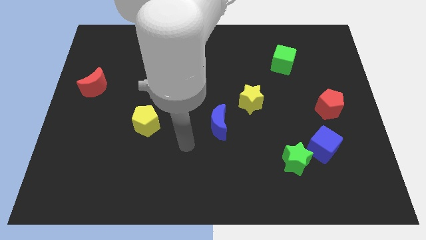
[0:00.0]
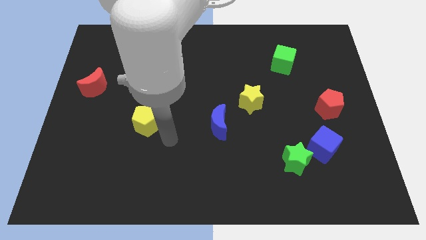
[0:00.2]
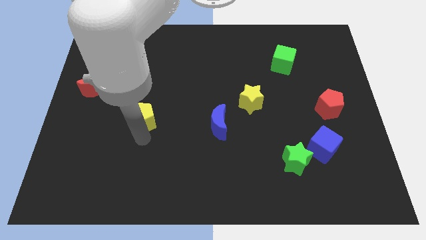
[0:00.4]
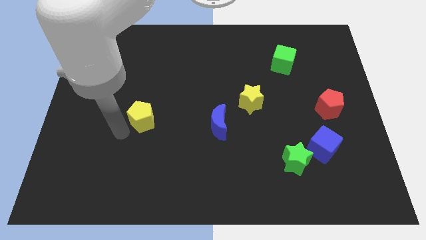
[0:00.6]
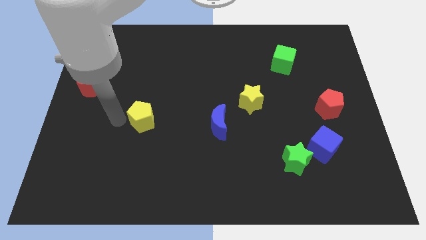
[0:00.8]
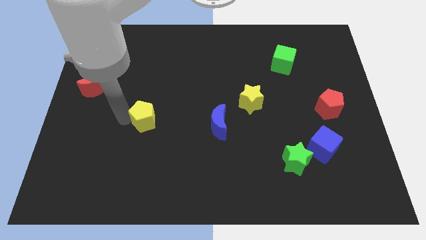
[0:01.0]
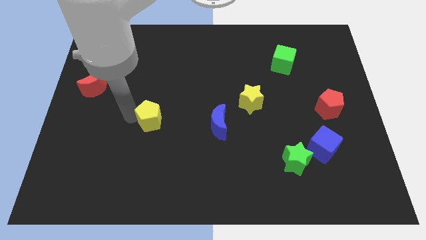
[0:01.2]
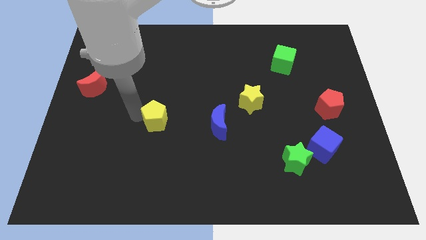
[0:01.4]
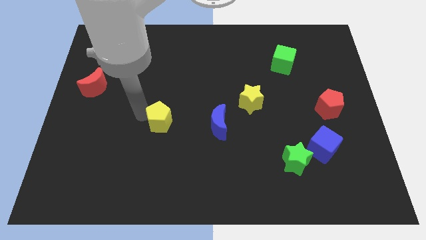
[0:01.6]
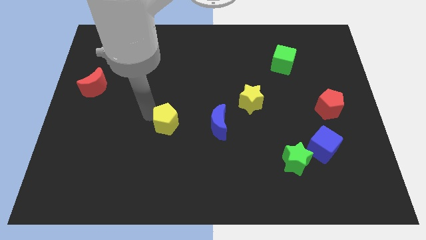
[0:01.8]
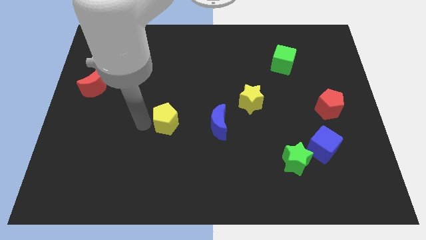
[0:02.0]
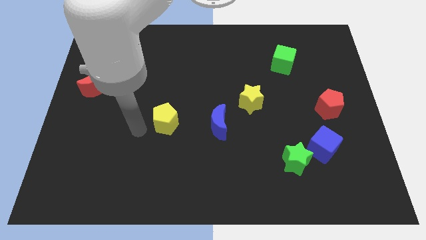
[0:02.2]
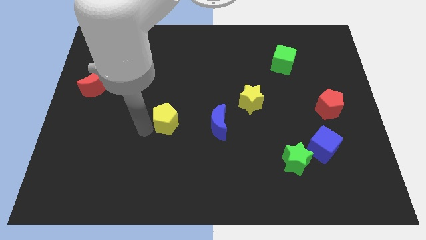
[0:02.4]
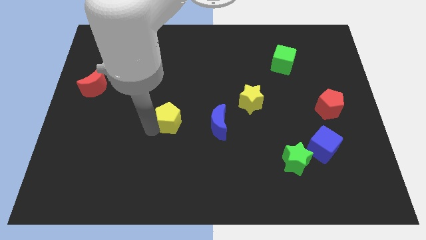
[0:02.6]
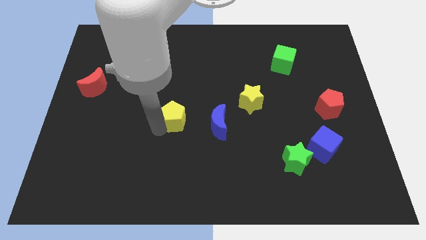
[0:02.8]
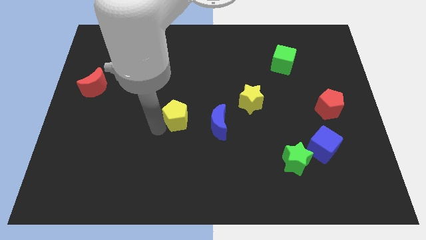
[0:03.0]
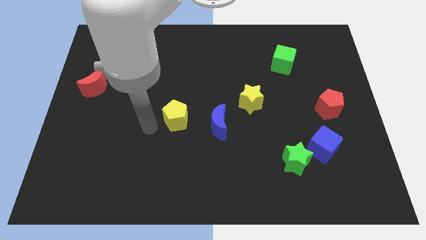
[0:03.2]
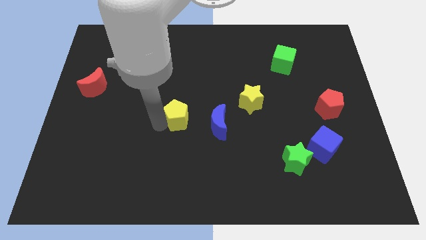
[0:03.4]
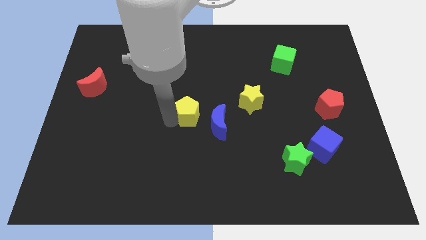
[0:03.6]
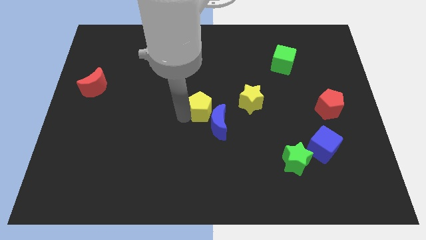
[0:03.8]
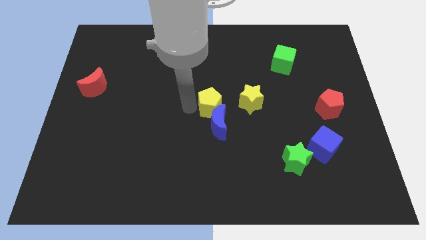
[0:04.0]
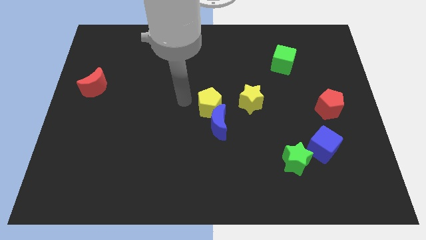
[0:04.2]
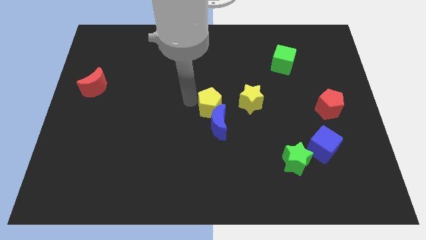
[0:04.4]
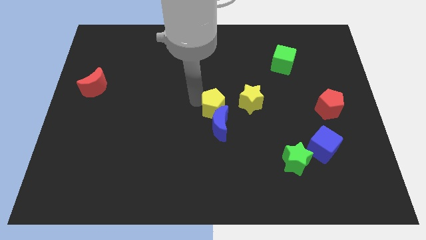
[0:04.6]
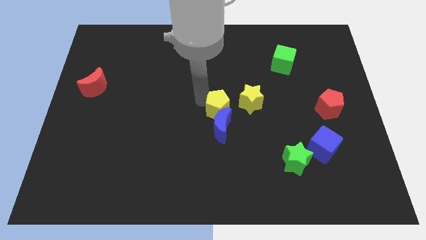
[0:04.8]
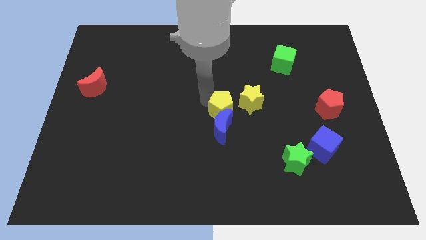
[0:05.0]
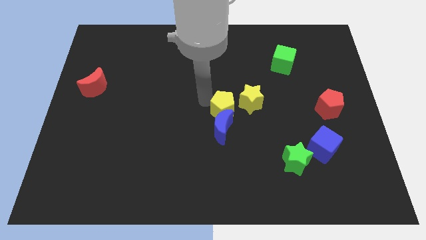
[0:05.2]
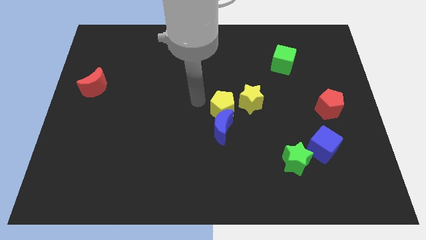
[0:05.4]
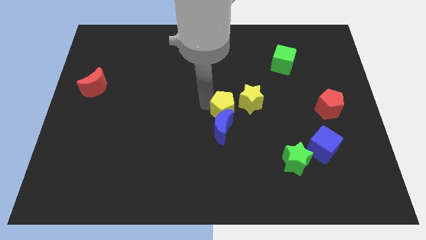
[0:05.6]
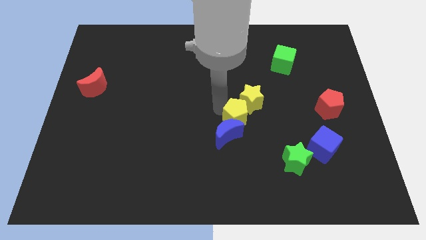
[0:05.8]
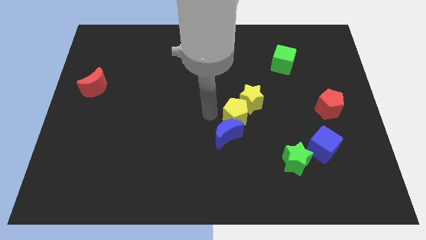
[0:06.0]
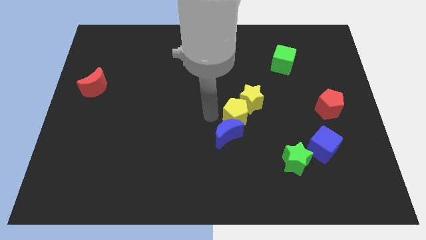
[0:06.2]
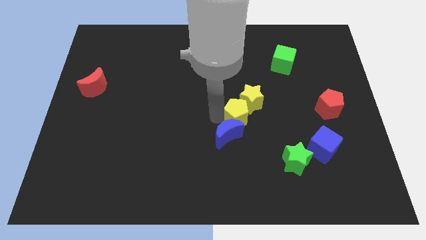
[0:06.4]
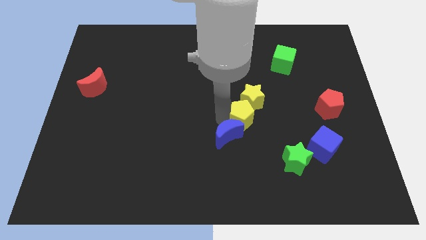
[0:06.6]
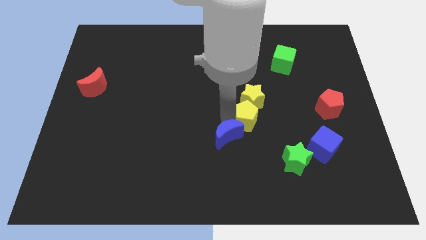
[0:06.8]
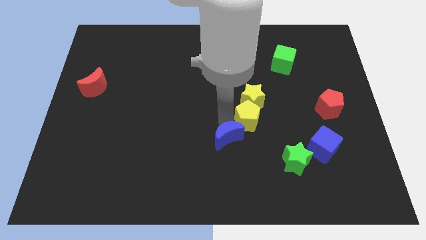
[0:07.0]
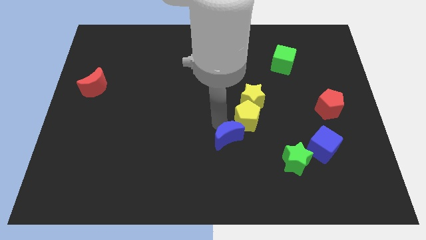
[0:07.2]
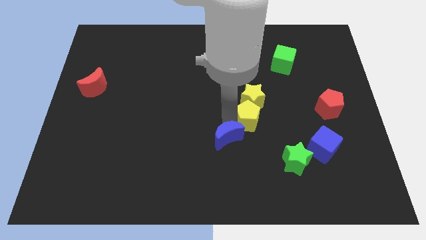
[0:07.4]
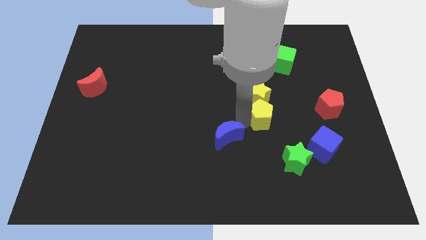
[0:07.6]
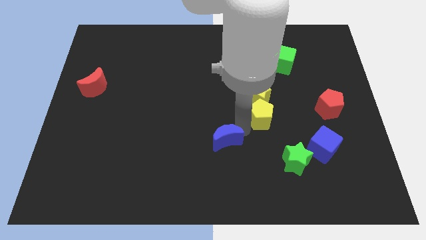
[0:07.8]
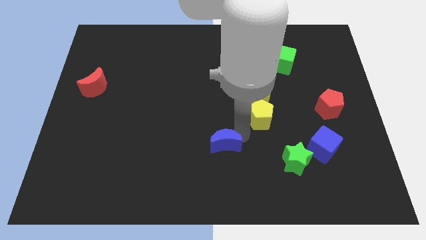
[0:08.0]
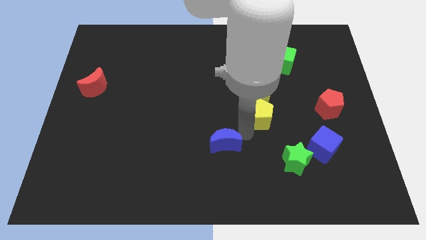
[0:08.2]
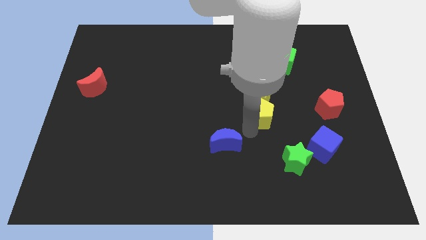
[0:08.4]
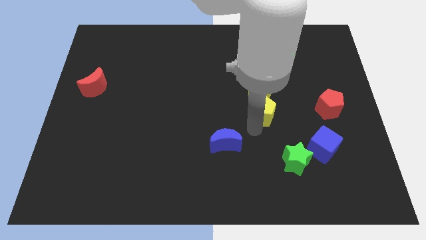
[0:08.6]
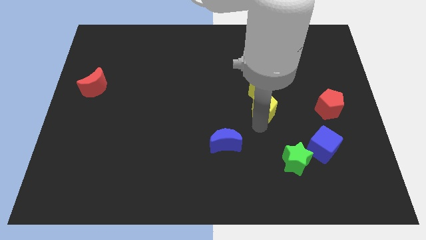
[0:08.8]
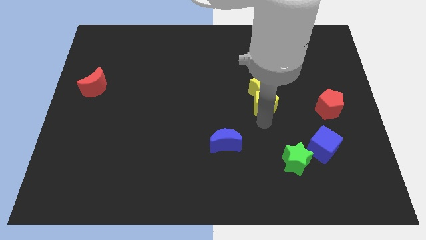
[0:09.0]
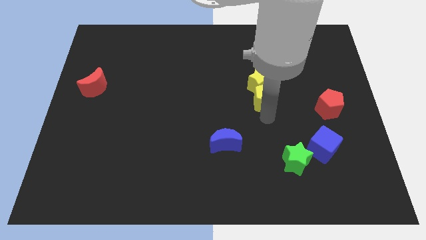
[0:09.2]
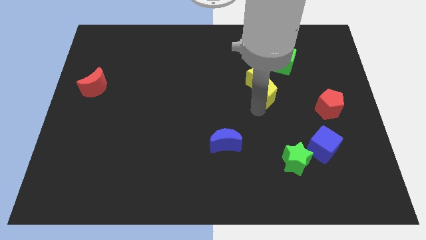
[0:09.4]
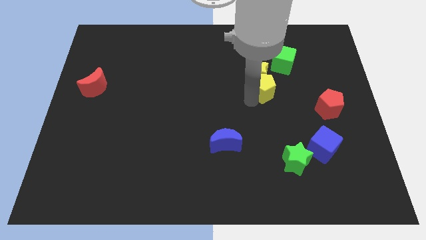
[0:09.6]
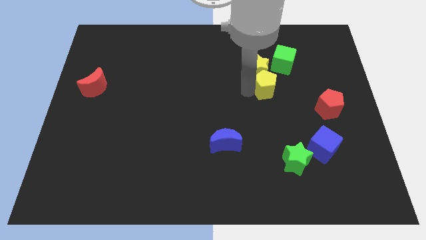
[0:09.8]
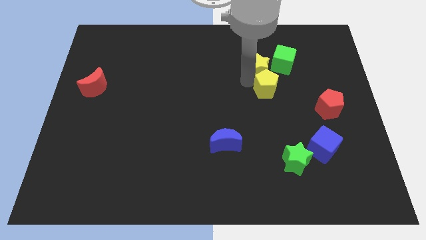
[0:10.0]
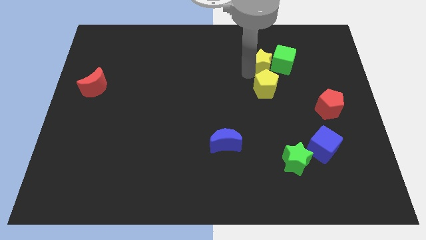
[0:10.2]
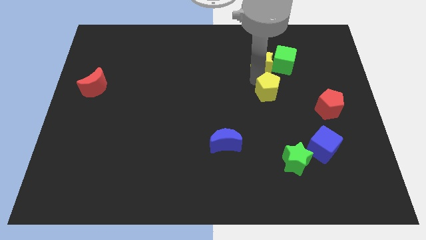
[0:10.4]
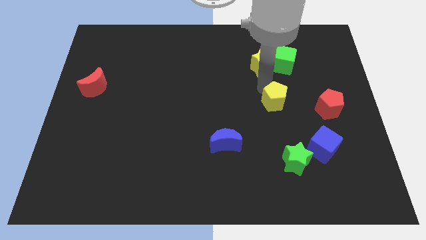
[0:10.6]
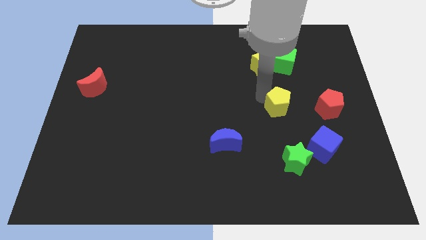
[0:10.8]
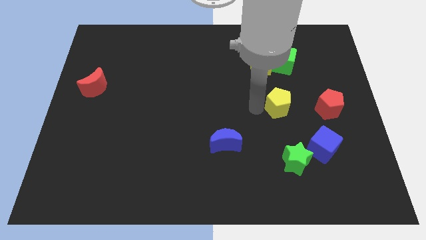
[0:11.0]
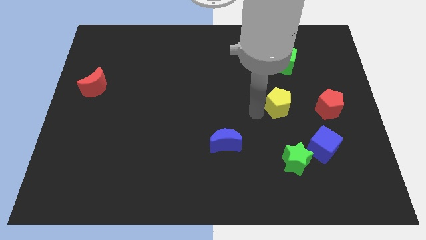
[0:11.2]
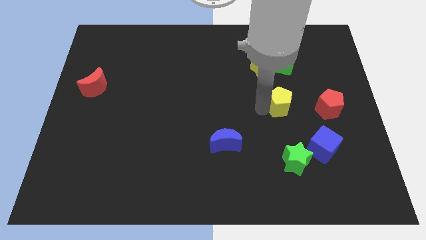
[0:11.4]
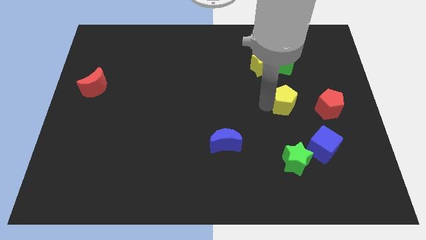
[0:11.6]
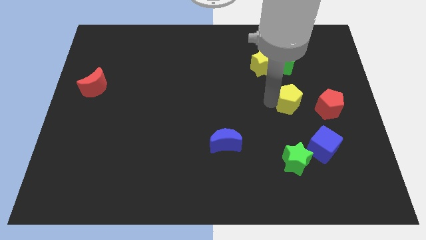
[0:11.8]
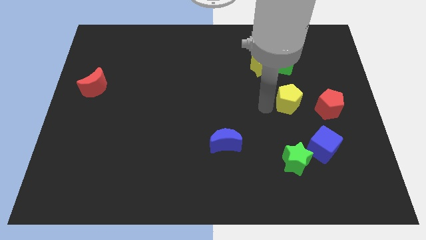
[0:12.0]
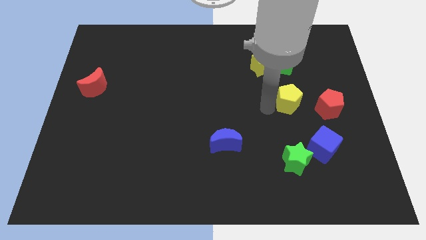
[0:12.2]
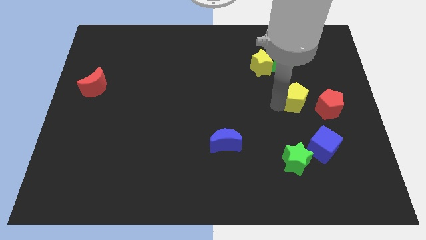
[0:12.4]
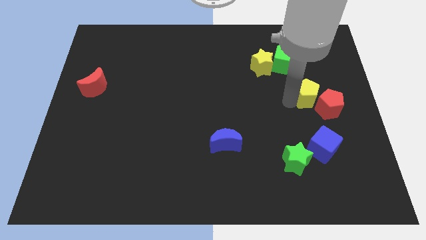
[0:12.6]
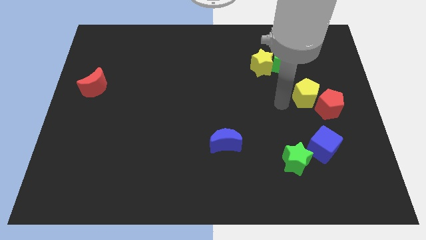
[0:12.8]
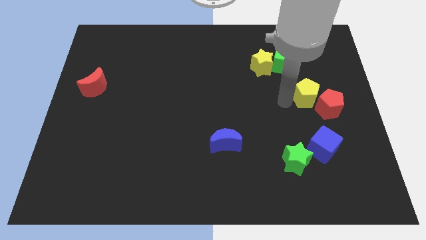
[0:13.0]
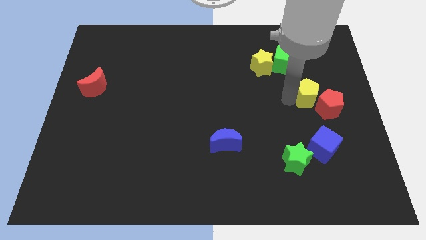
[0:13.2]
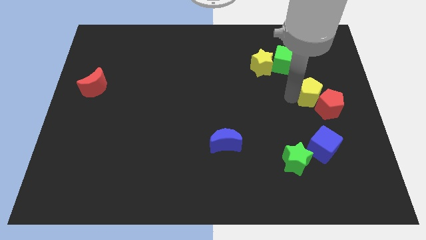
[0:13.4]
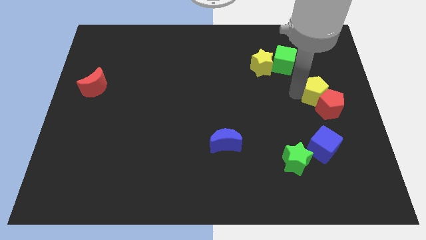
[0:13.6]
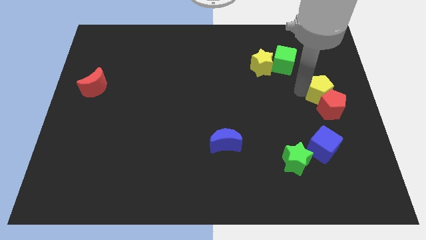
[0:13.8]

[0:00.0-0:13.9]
push the yellow pentagon to the center right
